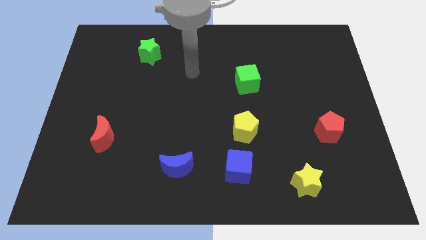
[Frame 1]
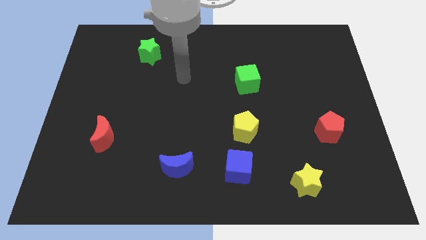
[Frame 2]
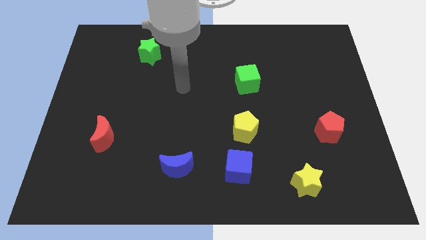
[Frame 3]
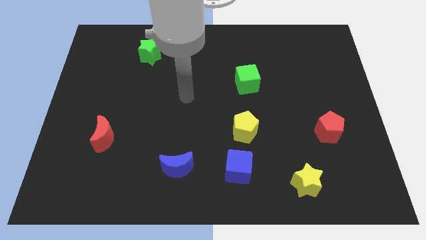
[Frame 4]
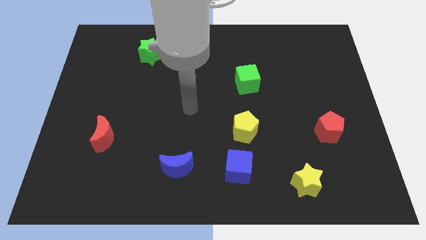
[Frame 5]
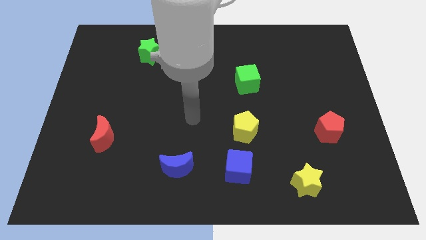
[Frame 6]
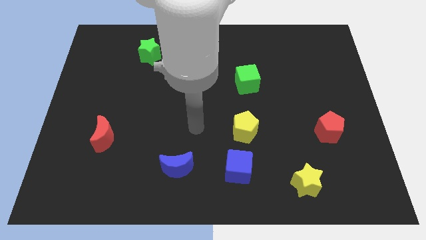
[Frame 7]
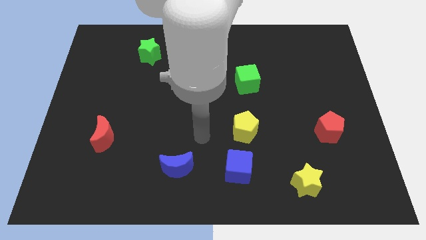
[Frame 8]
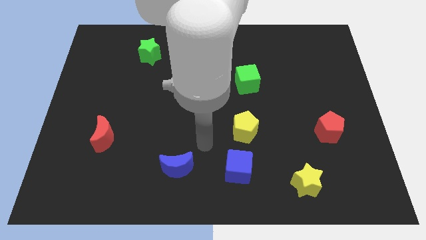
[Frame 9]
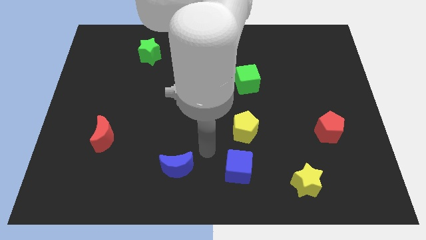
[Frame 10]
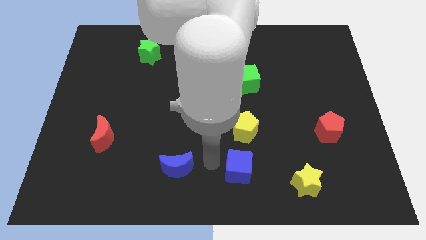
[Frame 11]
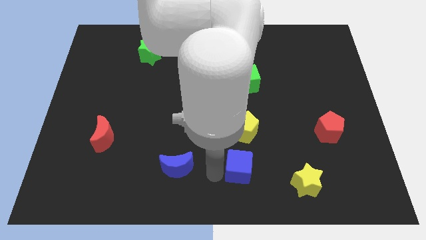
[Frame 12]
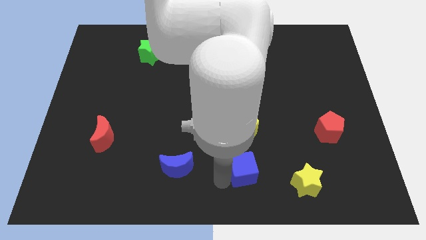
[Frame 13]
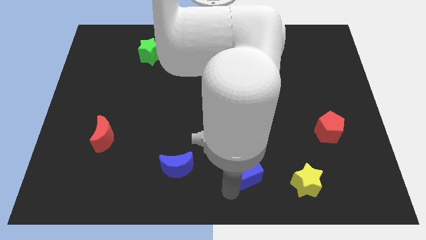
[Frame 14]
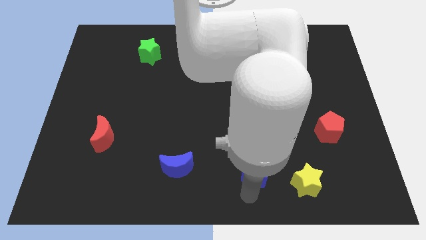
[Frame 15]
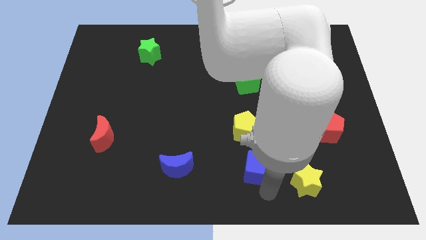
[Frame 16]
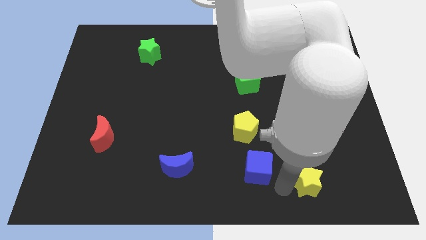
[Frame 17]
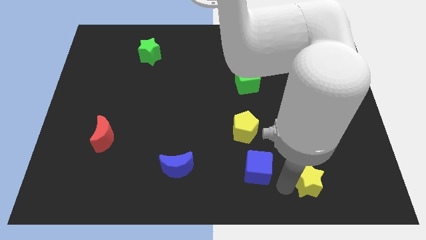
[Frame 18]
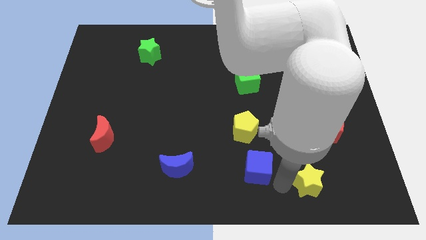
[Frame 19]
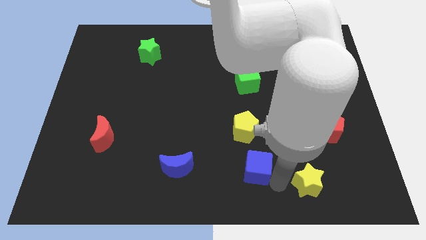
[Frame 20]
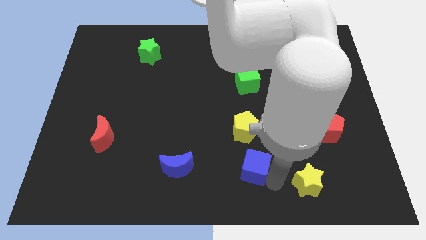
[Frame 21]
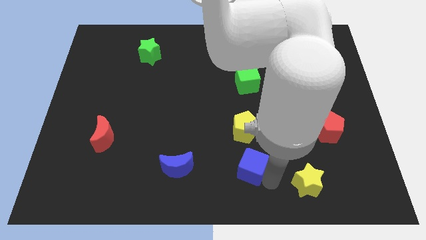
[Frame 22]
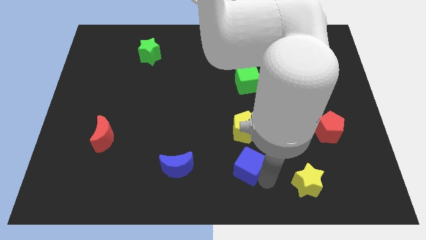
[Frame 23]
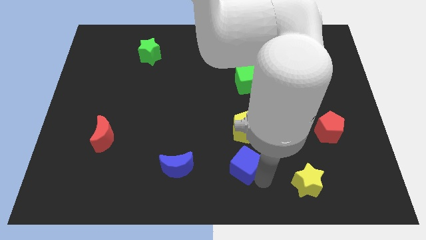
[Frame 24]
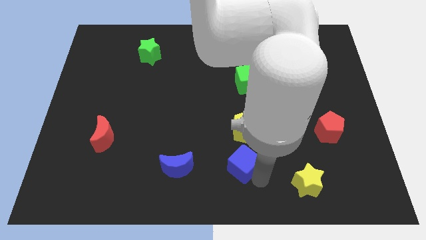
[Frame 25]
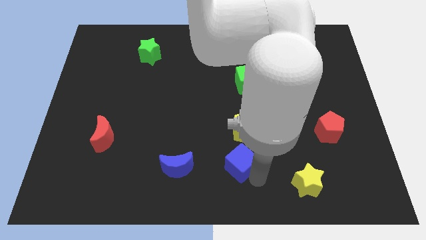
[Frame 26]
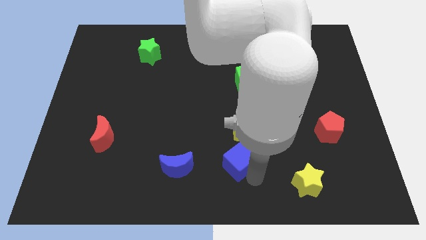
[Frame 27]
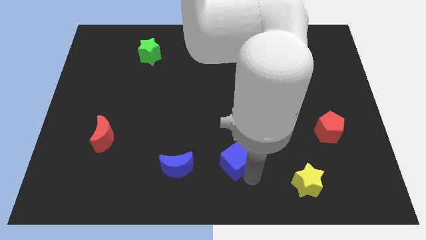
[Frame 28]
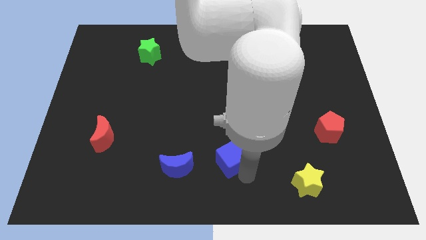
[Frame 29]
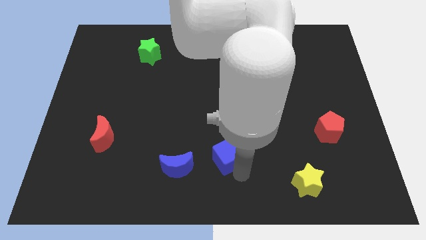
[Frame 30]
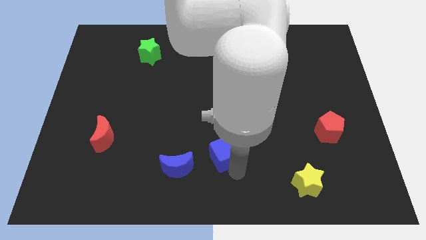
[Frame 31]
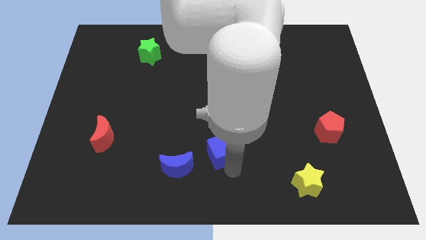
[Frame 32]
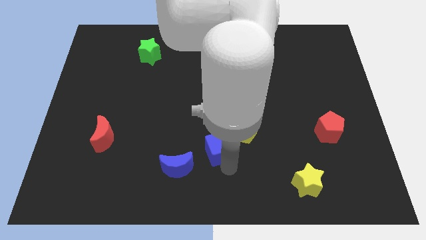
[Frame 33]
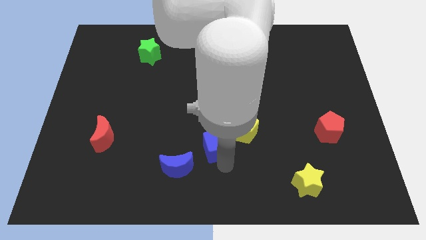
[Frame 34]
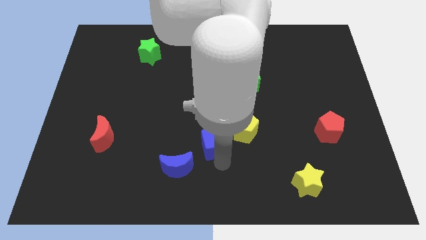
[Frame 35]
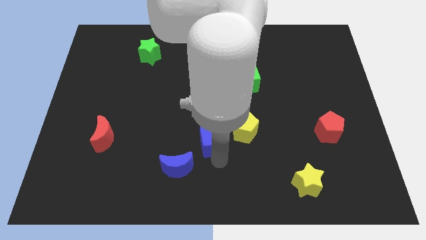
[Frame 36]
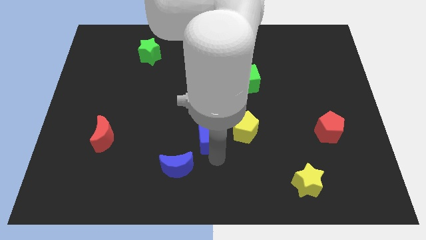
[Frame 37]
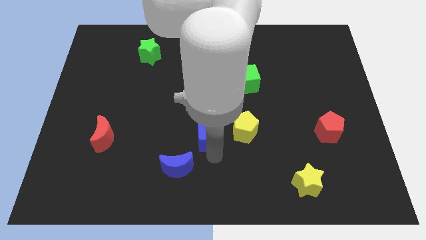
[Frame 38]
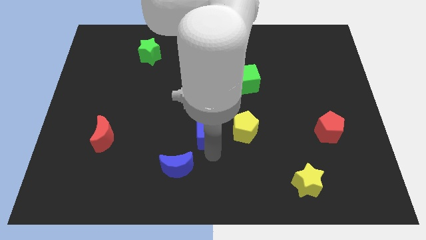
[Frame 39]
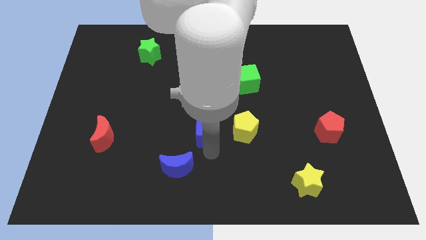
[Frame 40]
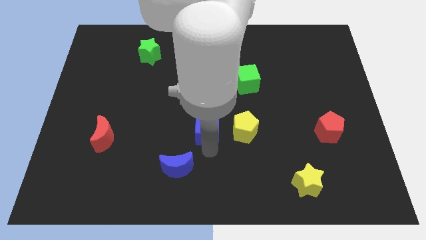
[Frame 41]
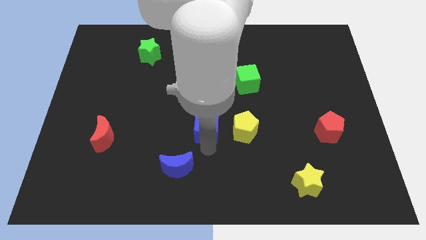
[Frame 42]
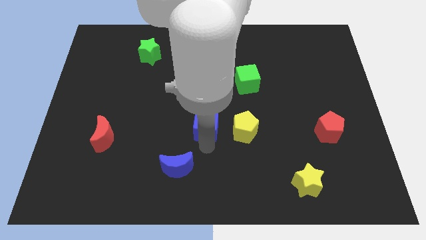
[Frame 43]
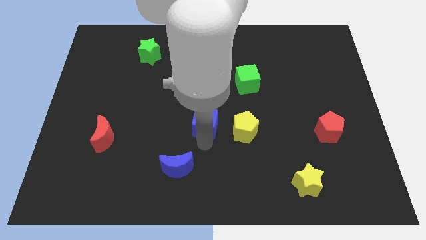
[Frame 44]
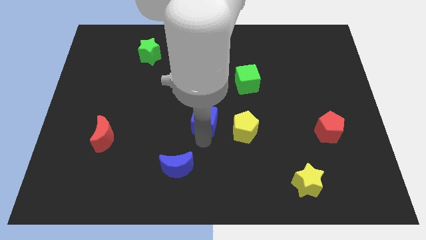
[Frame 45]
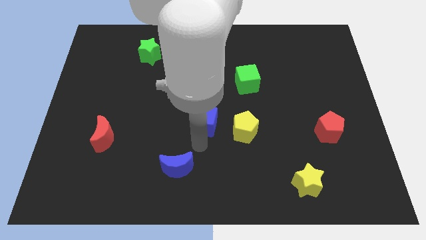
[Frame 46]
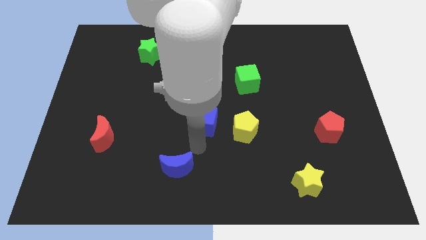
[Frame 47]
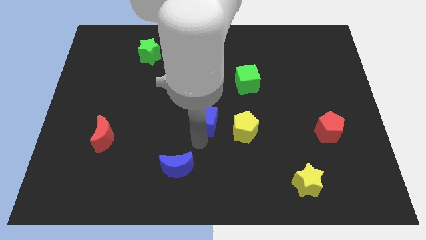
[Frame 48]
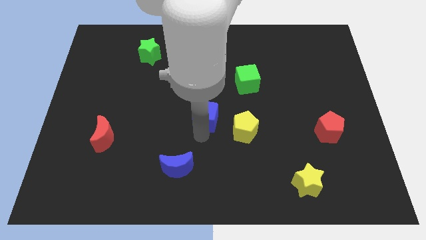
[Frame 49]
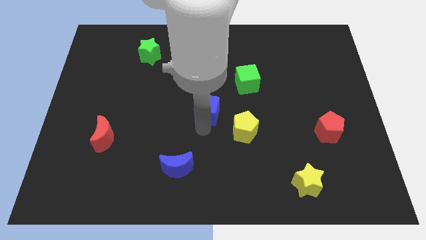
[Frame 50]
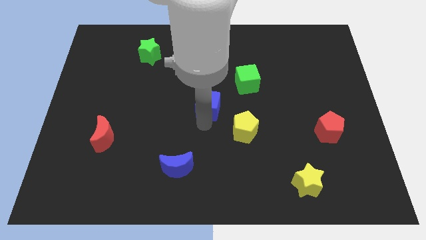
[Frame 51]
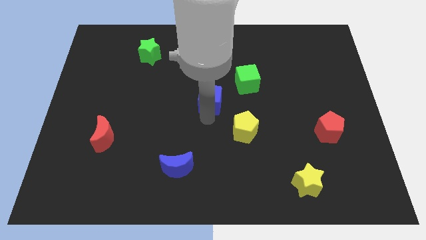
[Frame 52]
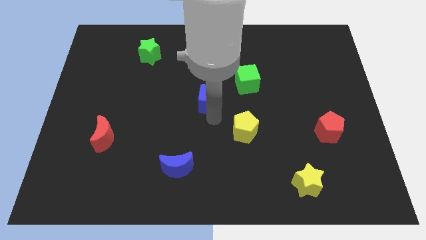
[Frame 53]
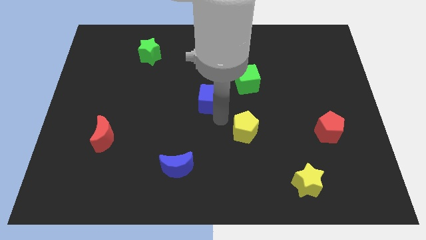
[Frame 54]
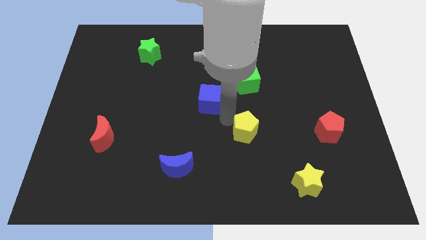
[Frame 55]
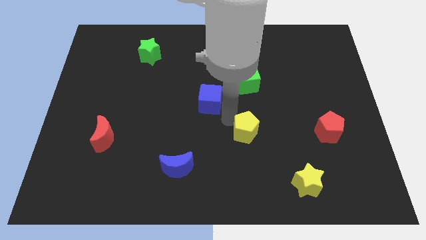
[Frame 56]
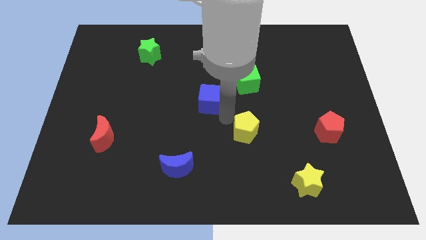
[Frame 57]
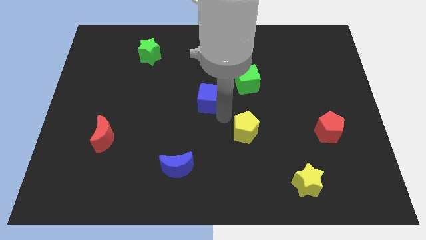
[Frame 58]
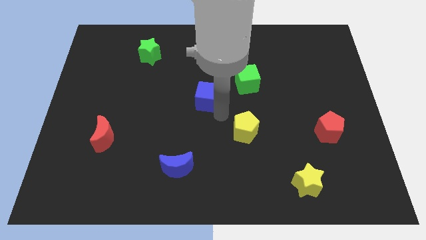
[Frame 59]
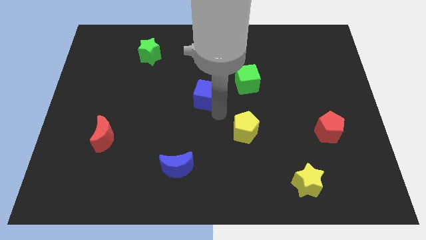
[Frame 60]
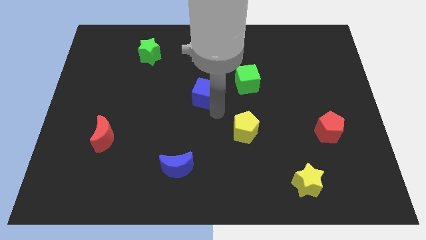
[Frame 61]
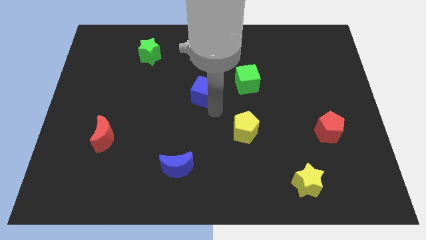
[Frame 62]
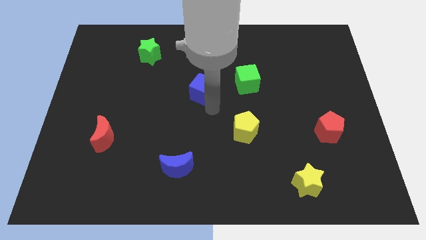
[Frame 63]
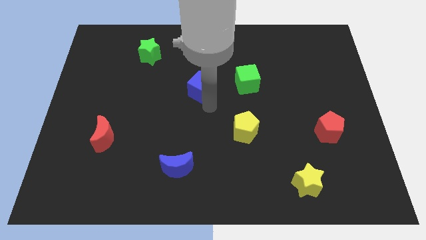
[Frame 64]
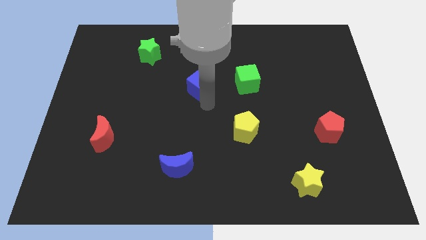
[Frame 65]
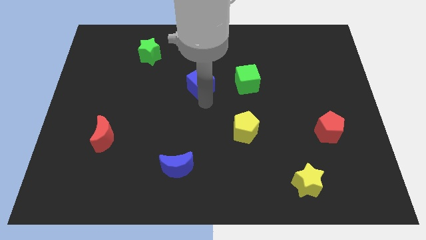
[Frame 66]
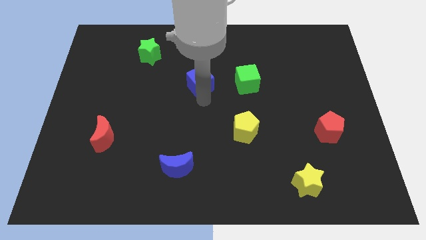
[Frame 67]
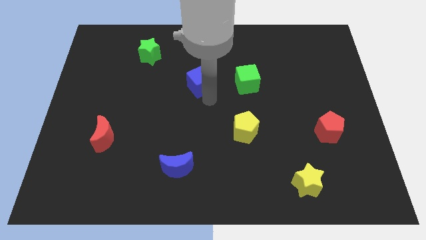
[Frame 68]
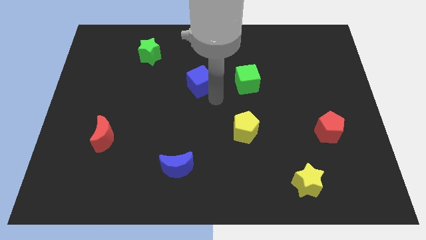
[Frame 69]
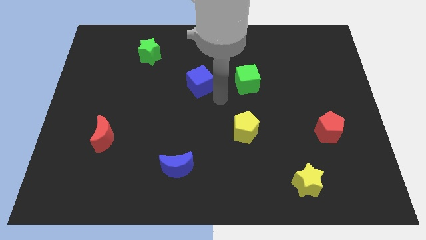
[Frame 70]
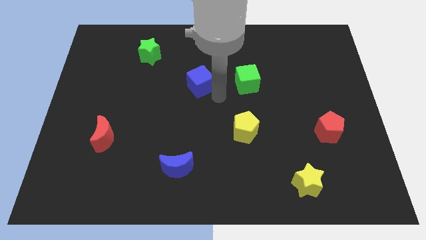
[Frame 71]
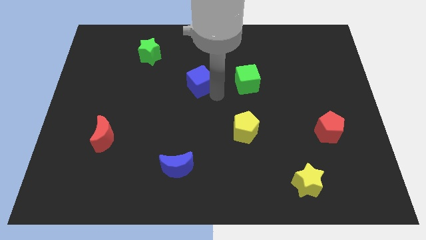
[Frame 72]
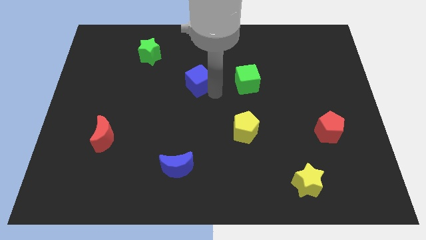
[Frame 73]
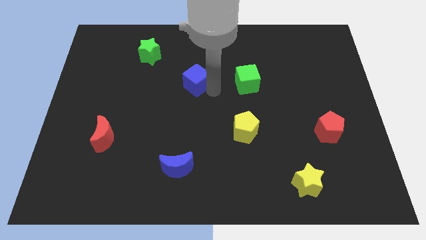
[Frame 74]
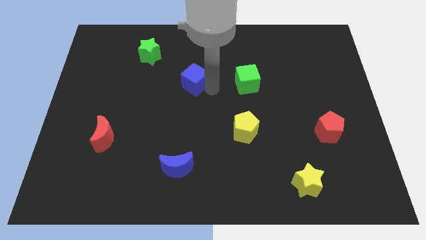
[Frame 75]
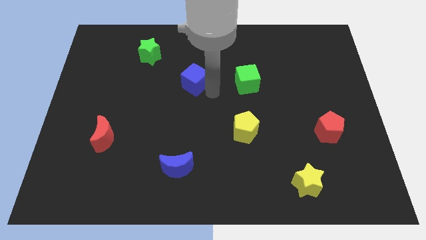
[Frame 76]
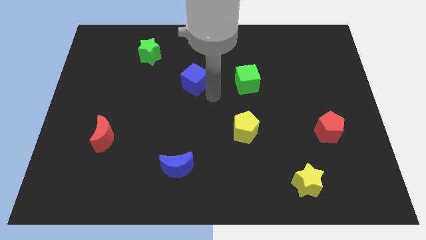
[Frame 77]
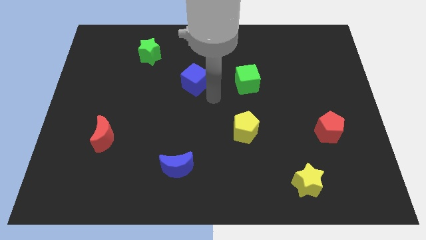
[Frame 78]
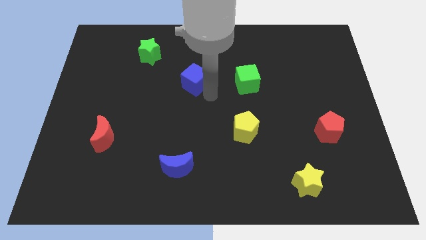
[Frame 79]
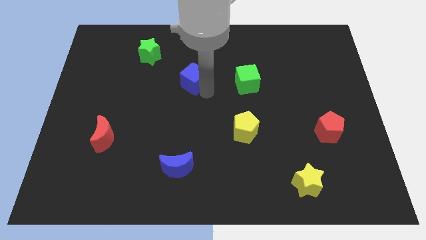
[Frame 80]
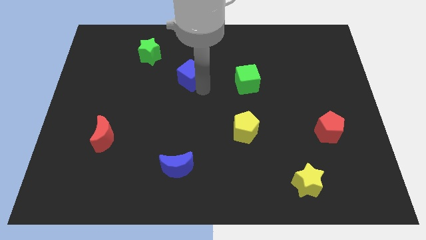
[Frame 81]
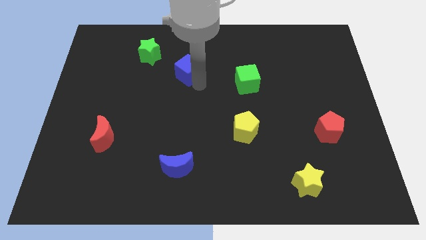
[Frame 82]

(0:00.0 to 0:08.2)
put the blue cube diagonally down and to the right of the green star
